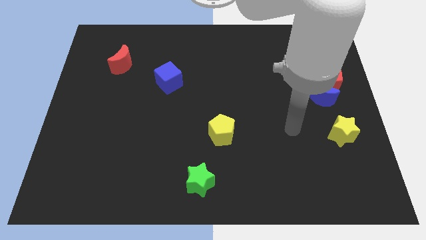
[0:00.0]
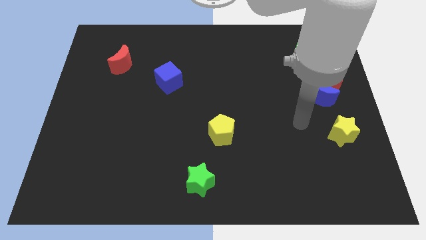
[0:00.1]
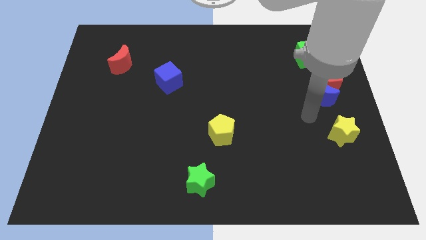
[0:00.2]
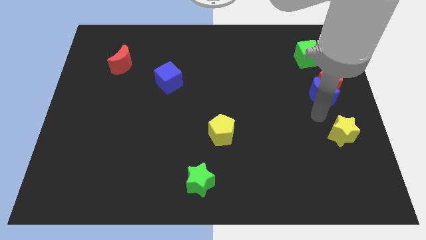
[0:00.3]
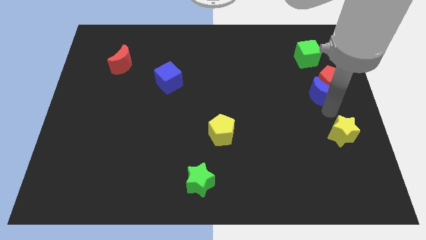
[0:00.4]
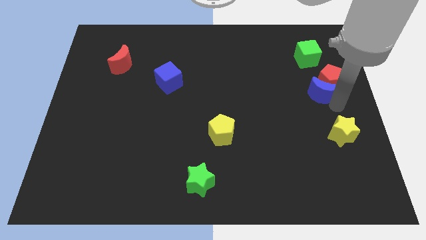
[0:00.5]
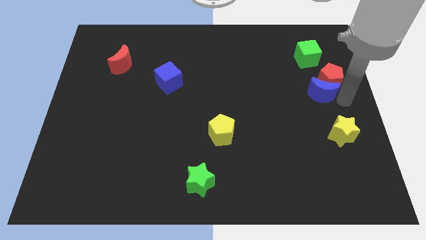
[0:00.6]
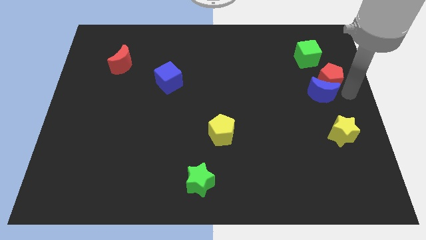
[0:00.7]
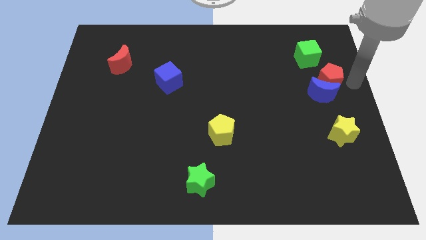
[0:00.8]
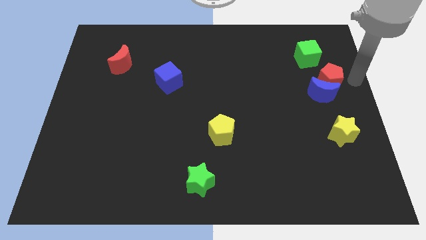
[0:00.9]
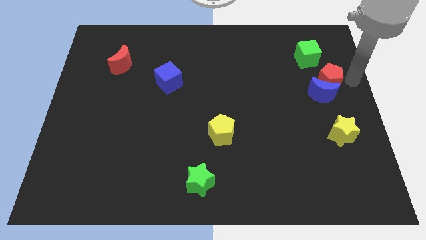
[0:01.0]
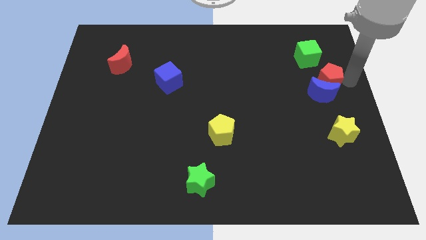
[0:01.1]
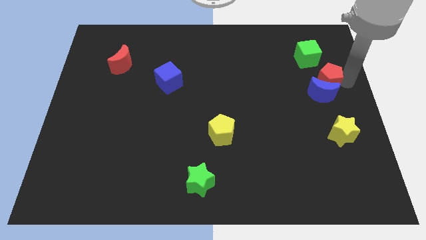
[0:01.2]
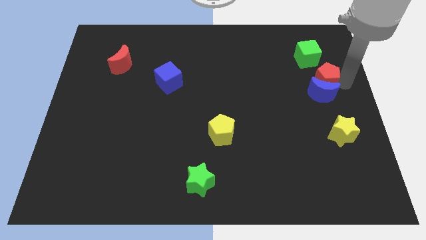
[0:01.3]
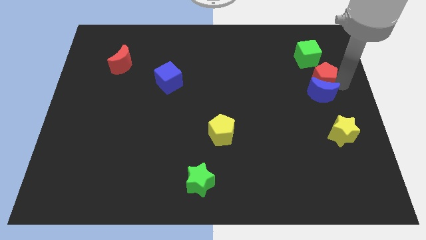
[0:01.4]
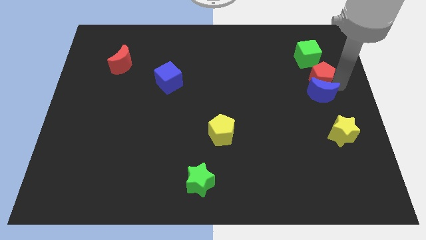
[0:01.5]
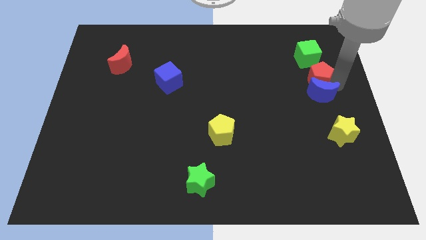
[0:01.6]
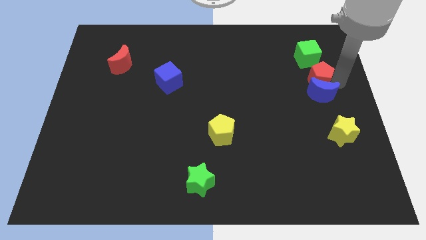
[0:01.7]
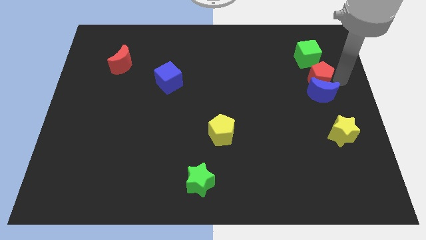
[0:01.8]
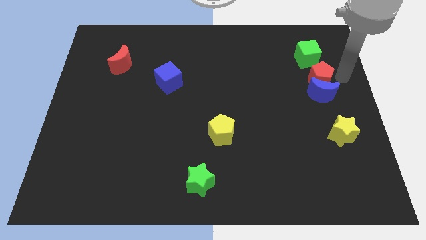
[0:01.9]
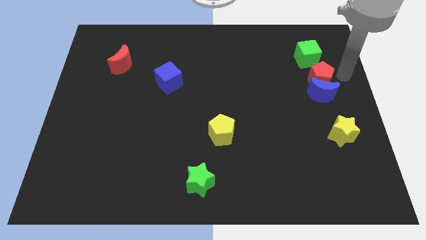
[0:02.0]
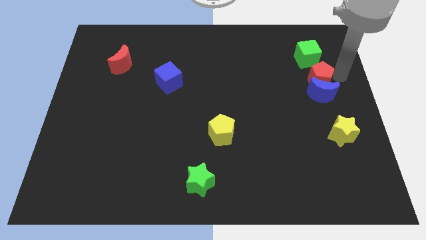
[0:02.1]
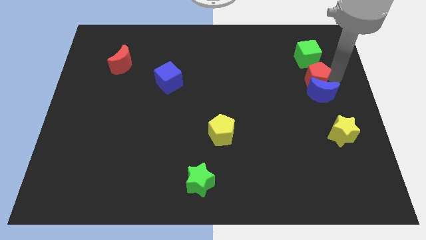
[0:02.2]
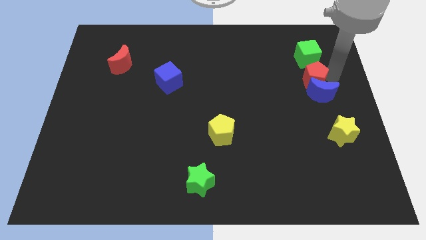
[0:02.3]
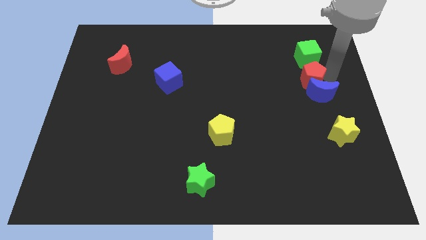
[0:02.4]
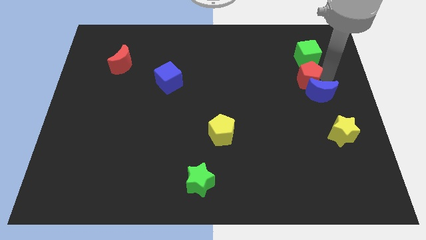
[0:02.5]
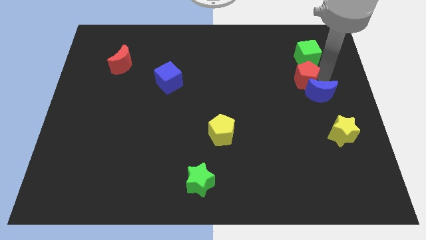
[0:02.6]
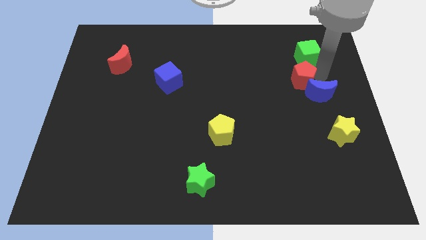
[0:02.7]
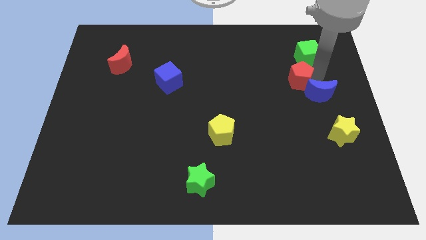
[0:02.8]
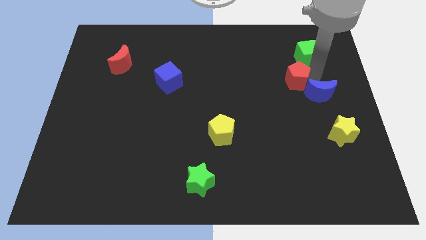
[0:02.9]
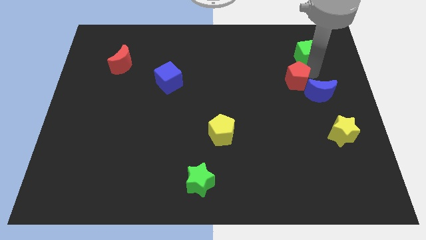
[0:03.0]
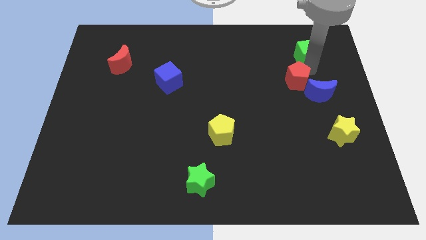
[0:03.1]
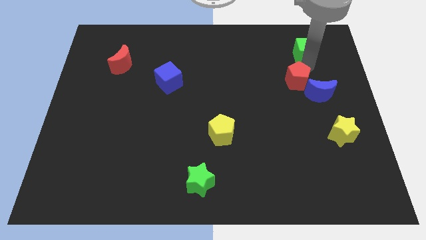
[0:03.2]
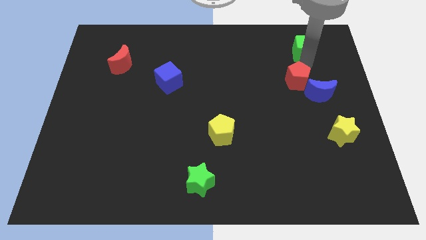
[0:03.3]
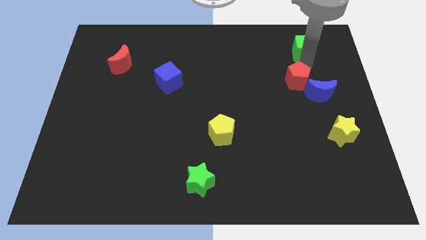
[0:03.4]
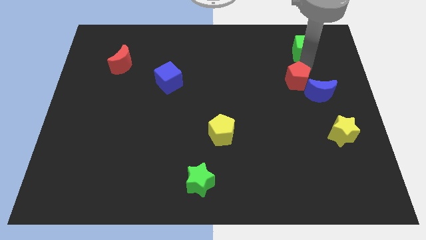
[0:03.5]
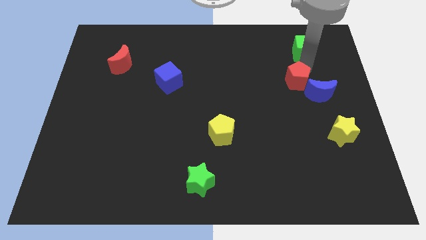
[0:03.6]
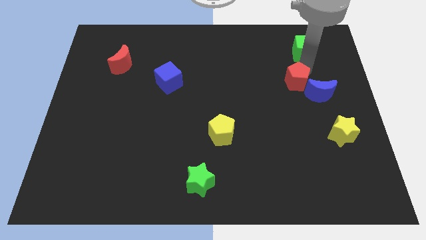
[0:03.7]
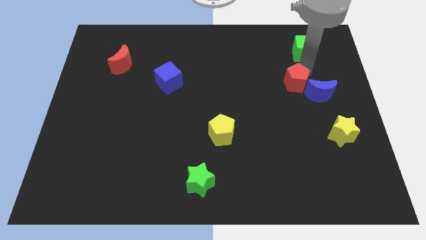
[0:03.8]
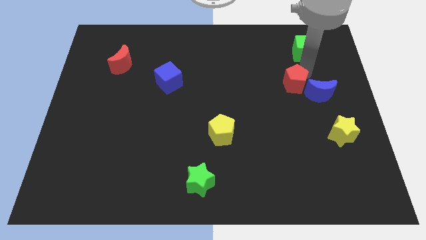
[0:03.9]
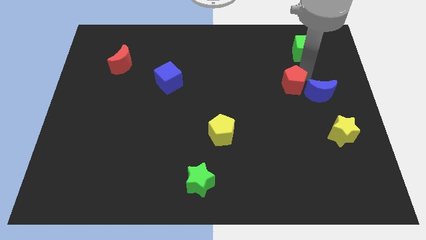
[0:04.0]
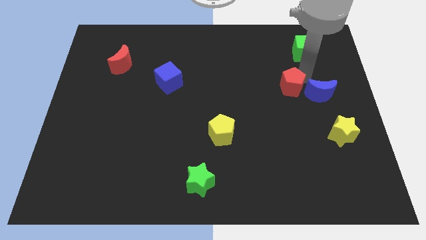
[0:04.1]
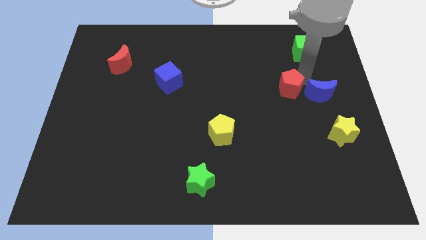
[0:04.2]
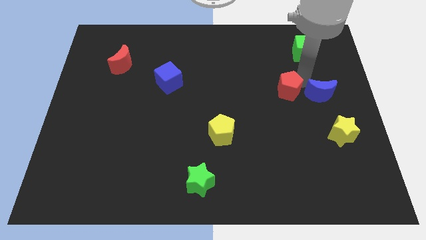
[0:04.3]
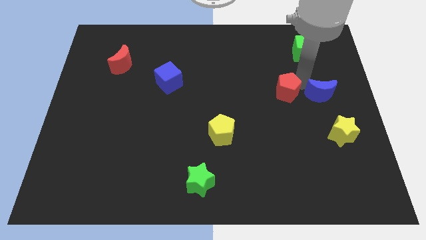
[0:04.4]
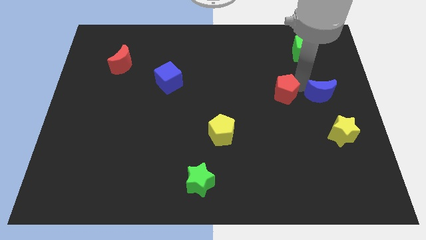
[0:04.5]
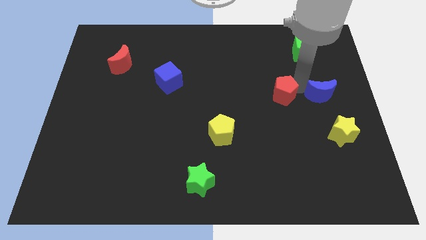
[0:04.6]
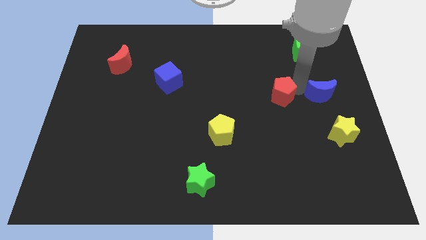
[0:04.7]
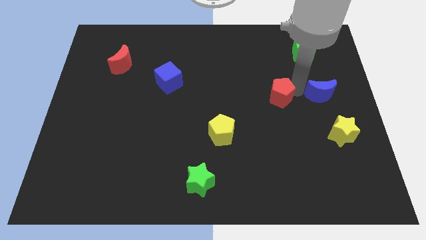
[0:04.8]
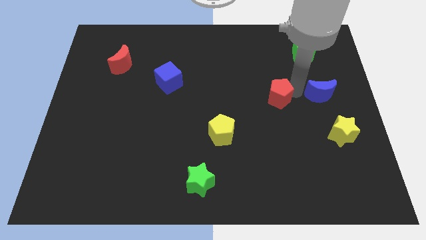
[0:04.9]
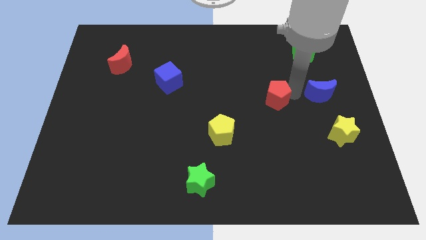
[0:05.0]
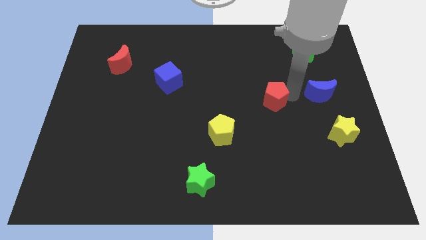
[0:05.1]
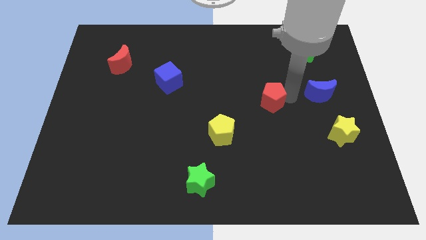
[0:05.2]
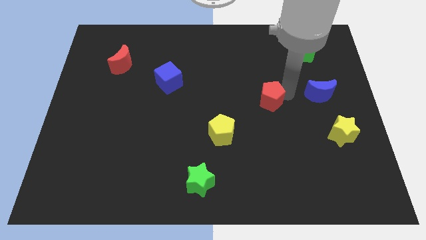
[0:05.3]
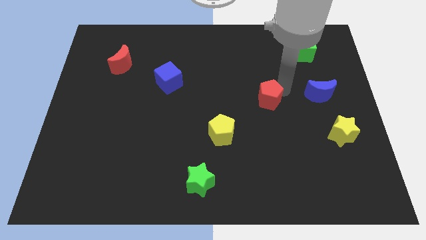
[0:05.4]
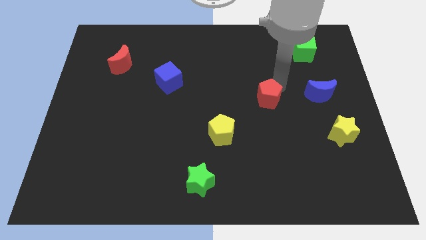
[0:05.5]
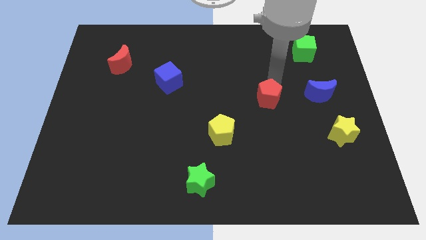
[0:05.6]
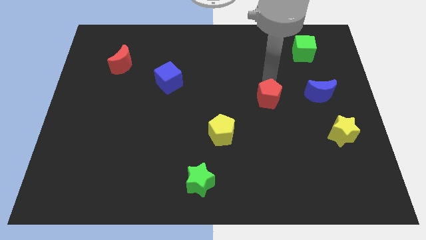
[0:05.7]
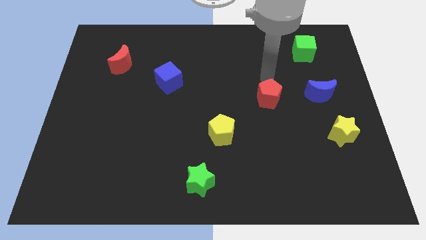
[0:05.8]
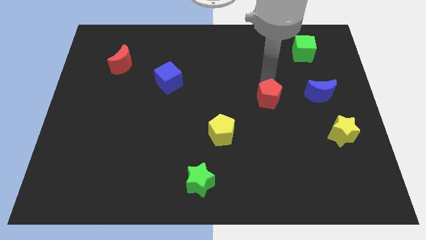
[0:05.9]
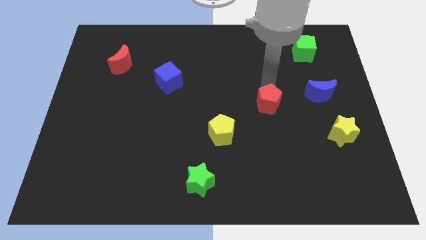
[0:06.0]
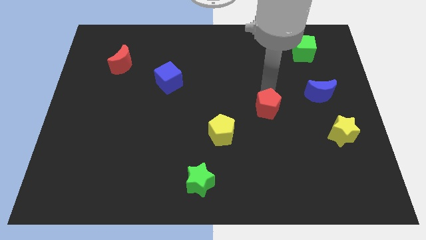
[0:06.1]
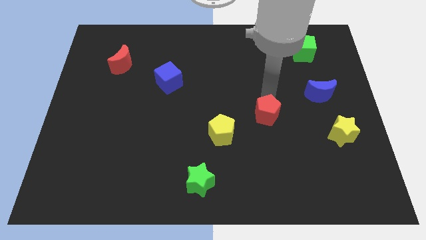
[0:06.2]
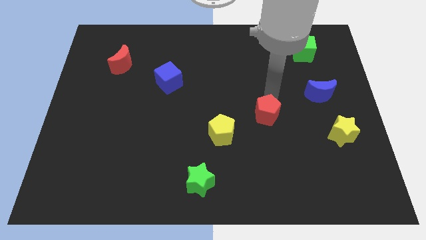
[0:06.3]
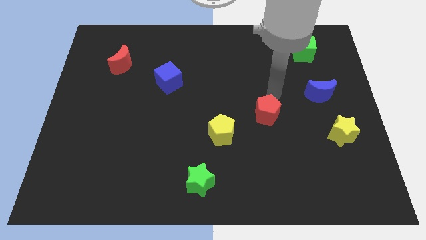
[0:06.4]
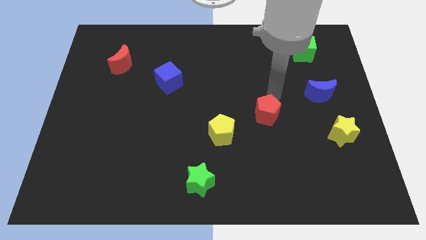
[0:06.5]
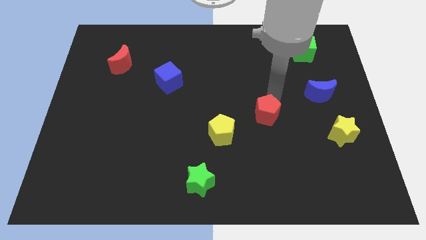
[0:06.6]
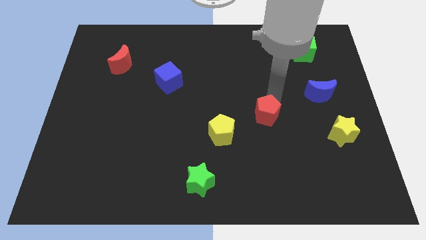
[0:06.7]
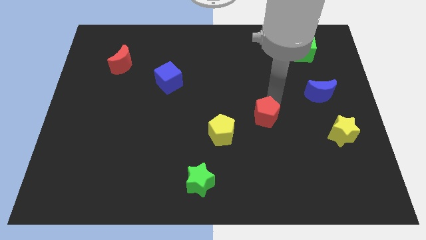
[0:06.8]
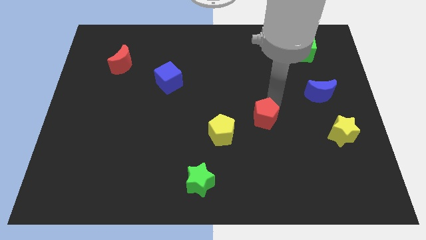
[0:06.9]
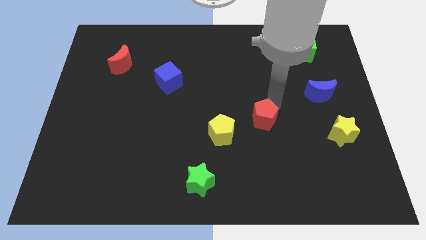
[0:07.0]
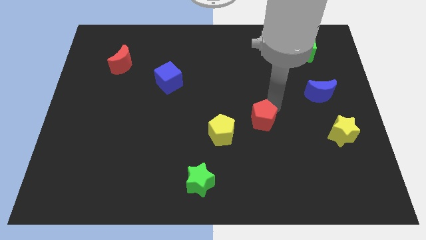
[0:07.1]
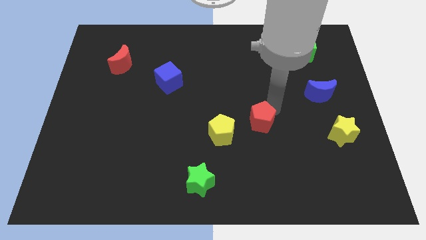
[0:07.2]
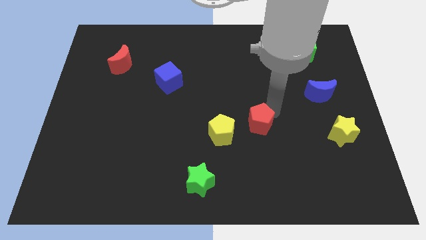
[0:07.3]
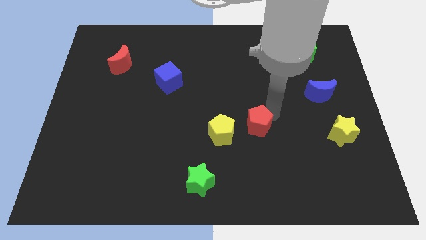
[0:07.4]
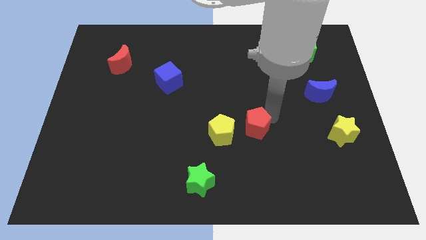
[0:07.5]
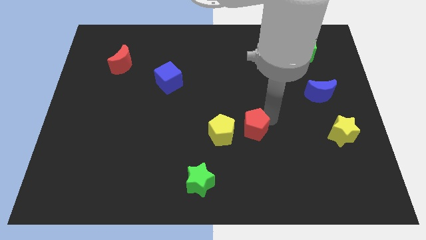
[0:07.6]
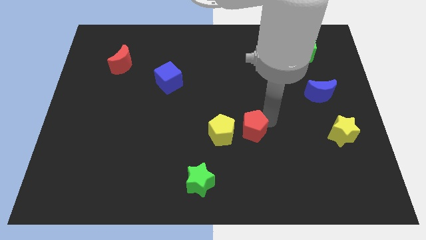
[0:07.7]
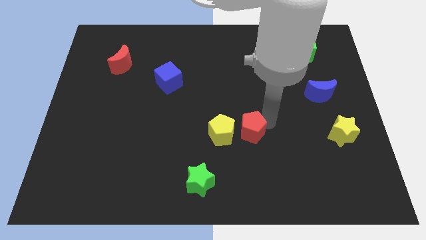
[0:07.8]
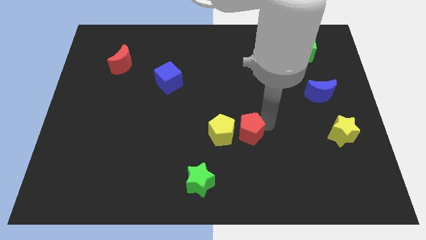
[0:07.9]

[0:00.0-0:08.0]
slide the red pentagon to the bottom right of the yellow pentagon
